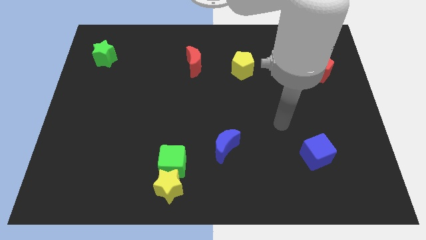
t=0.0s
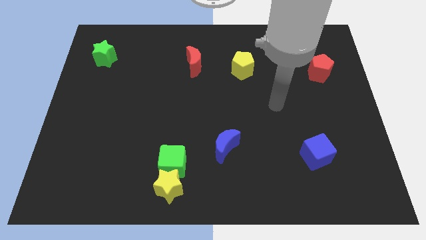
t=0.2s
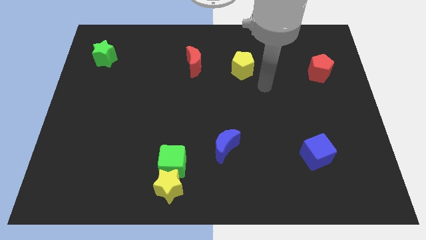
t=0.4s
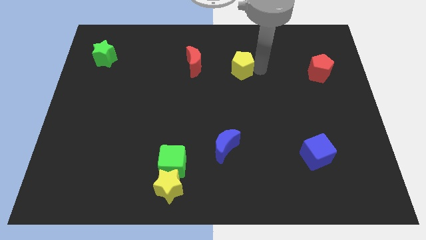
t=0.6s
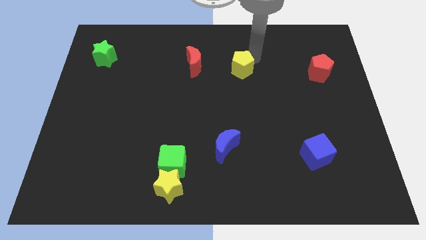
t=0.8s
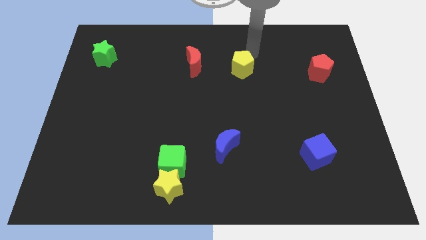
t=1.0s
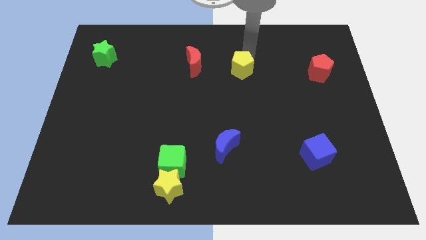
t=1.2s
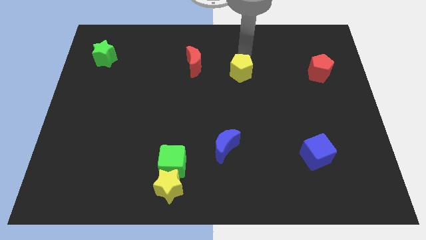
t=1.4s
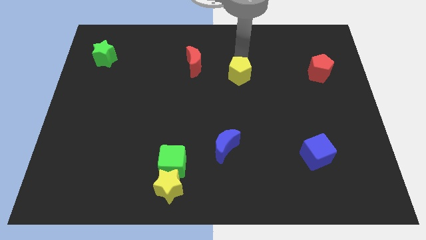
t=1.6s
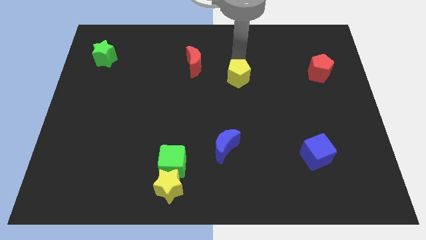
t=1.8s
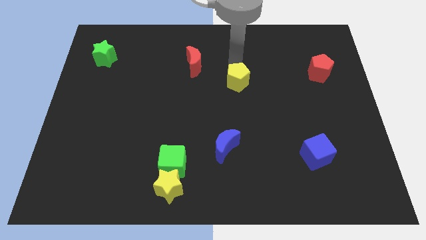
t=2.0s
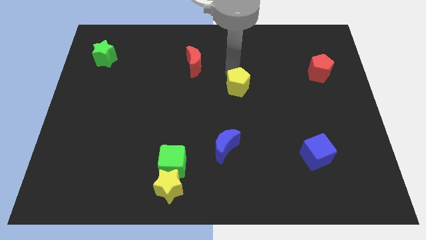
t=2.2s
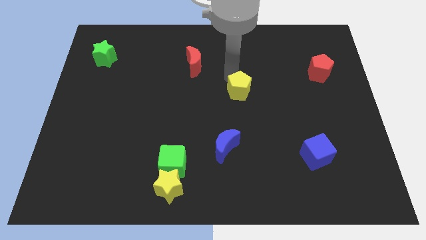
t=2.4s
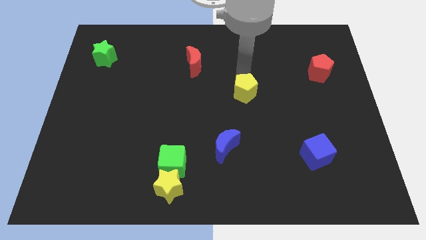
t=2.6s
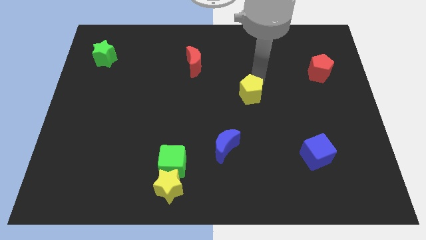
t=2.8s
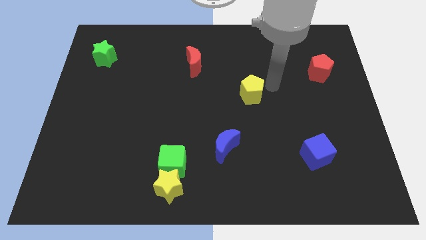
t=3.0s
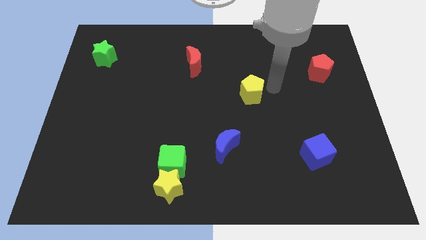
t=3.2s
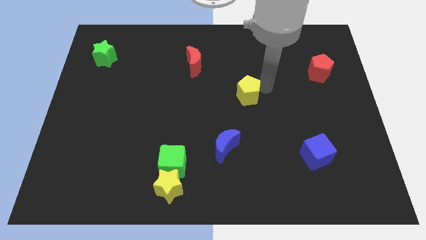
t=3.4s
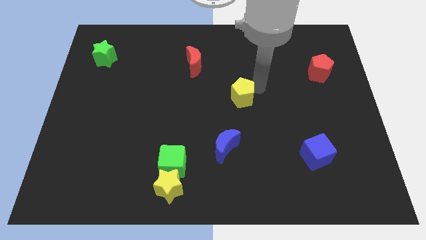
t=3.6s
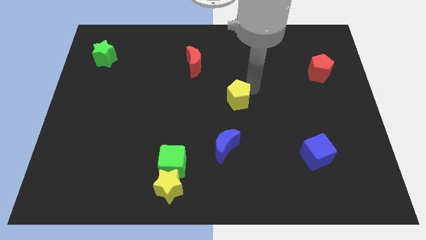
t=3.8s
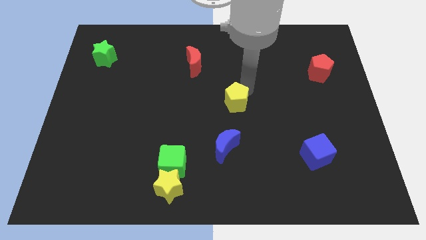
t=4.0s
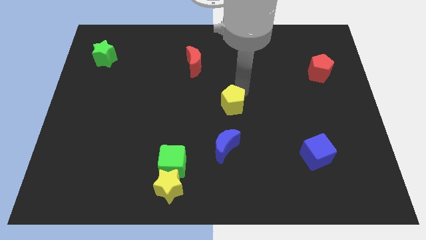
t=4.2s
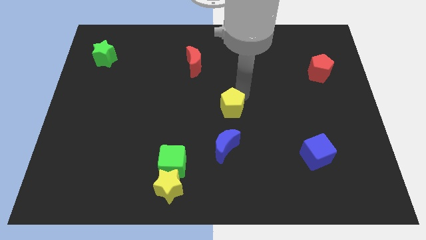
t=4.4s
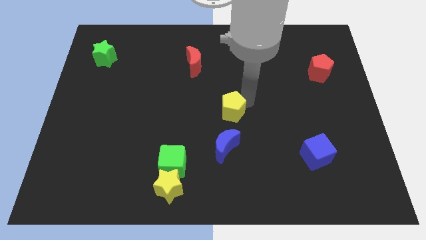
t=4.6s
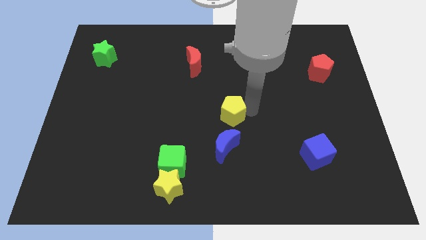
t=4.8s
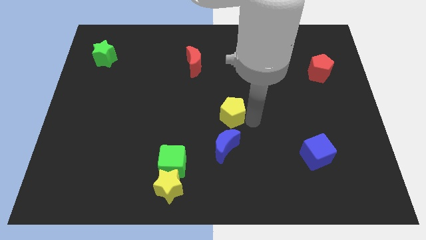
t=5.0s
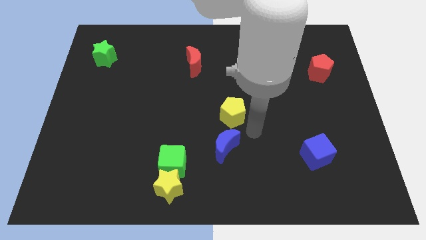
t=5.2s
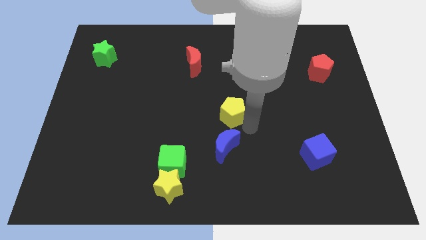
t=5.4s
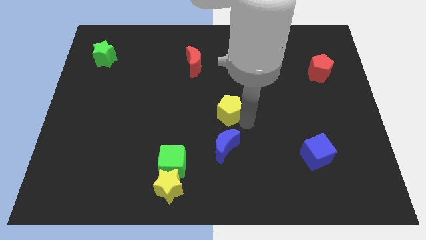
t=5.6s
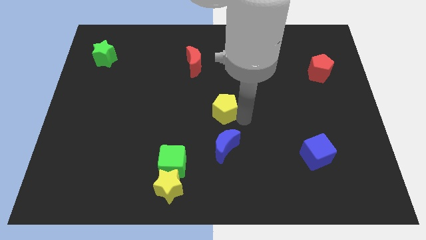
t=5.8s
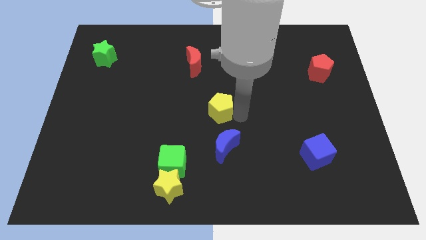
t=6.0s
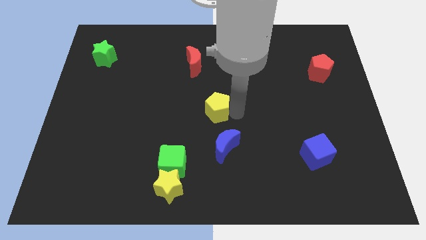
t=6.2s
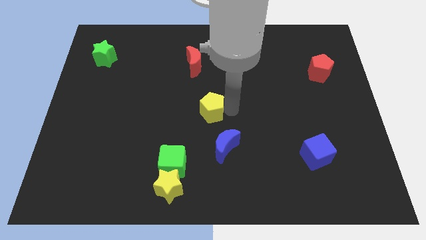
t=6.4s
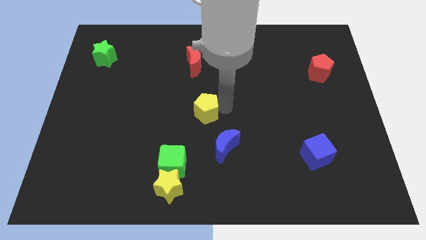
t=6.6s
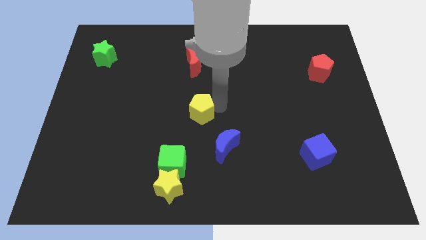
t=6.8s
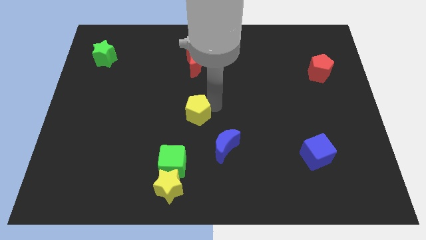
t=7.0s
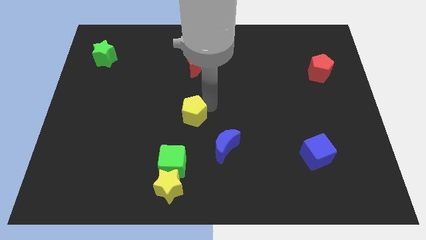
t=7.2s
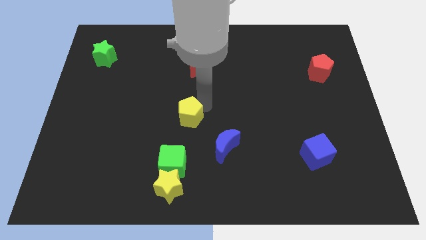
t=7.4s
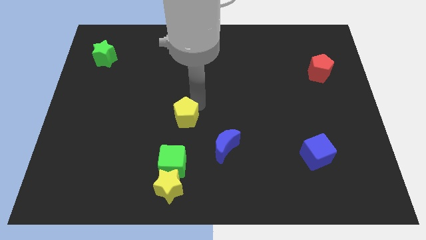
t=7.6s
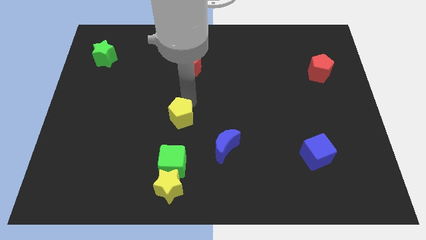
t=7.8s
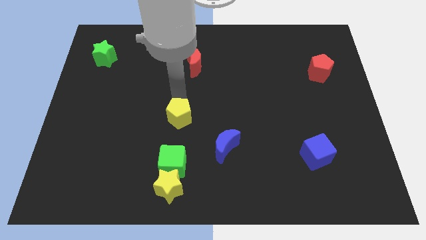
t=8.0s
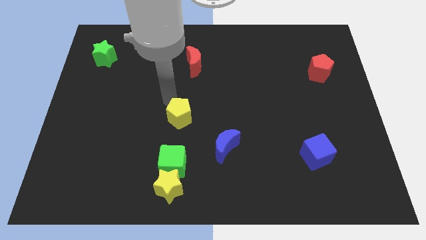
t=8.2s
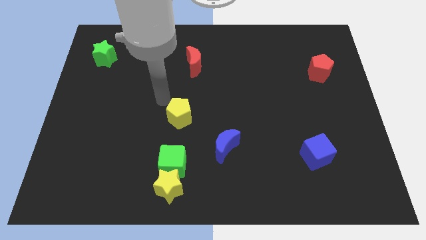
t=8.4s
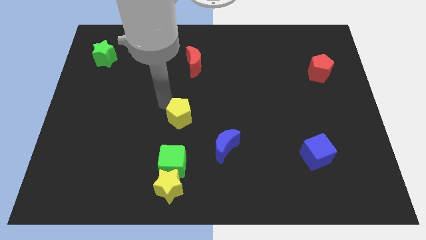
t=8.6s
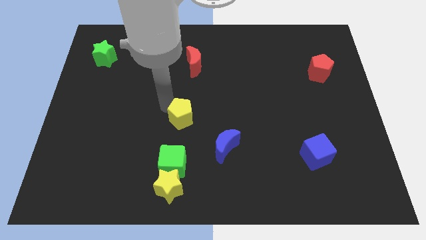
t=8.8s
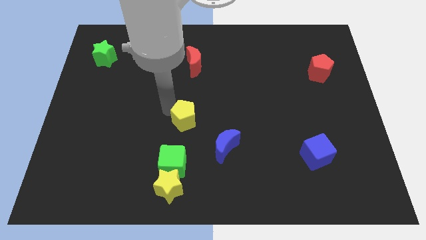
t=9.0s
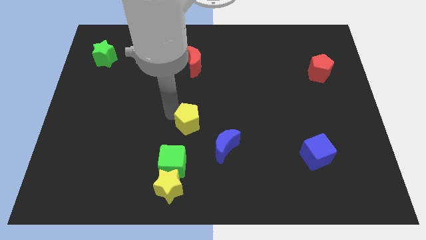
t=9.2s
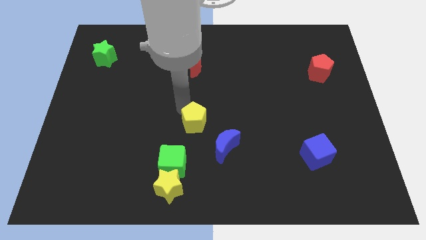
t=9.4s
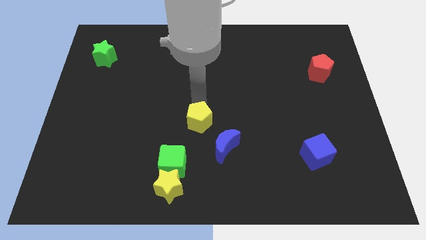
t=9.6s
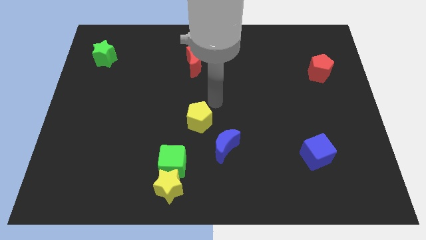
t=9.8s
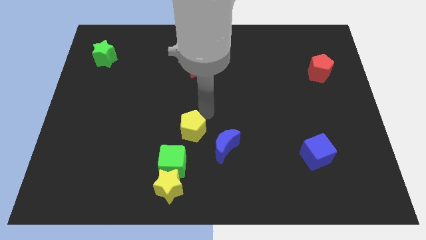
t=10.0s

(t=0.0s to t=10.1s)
put the yellow pentagon to the left side of the blue moon

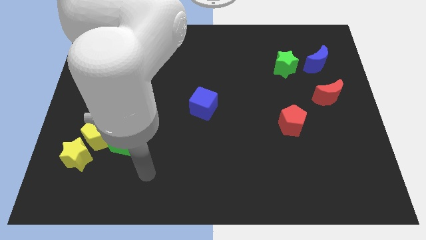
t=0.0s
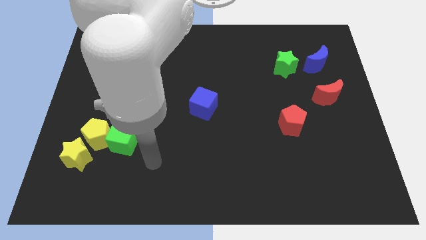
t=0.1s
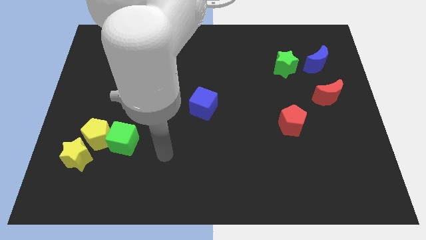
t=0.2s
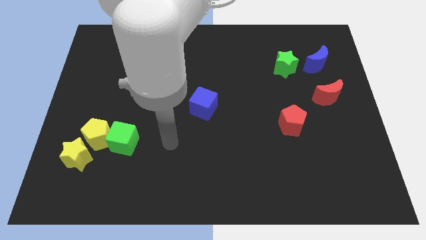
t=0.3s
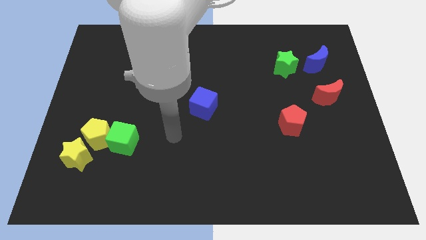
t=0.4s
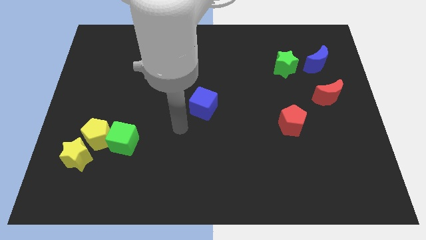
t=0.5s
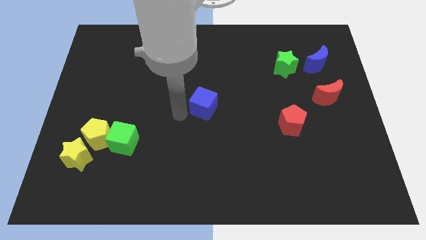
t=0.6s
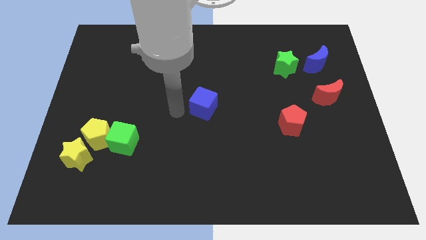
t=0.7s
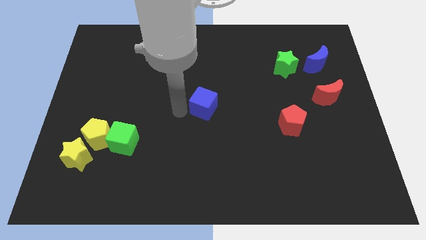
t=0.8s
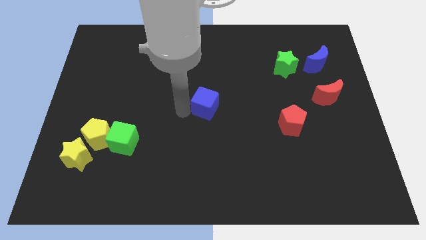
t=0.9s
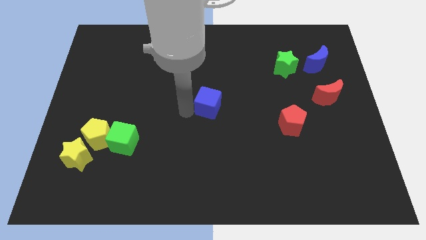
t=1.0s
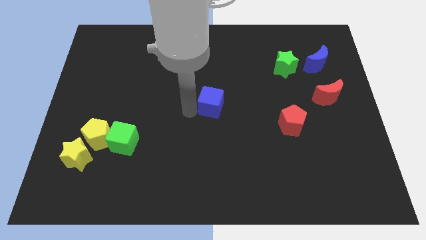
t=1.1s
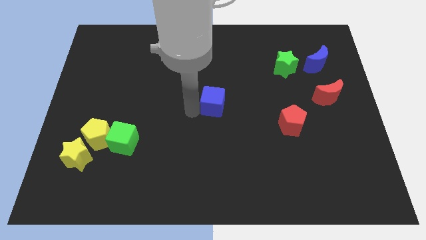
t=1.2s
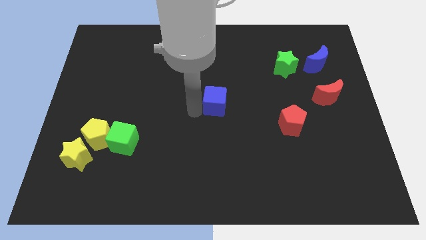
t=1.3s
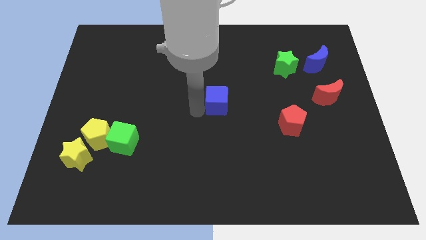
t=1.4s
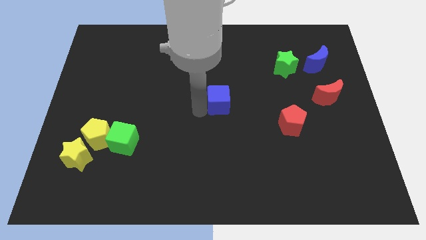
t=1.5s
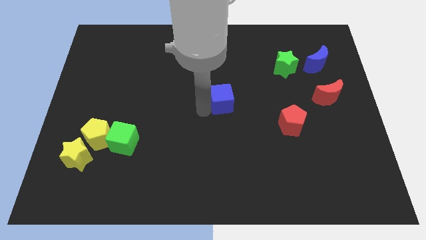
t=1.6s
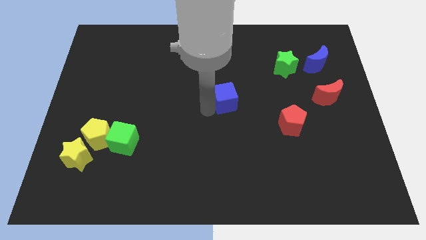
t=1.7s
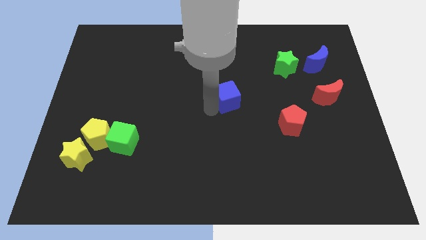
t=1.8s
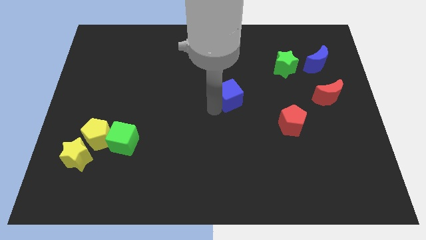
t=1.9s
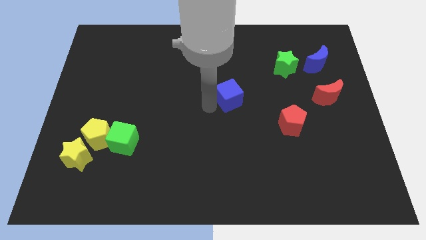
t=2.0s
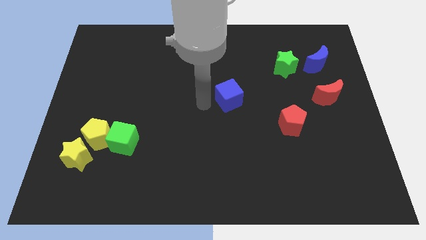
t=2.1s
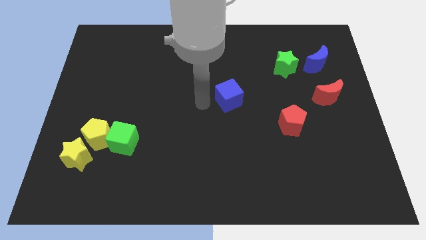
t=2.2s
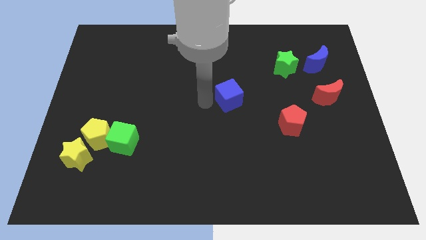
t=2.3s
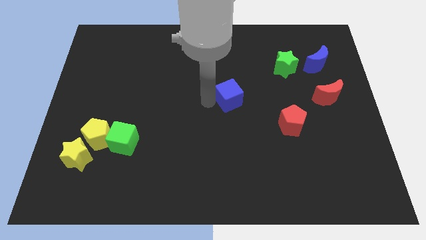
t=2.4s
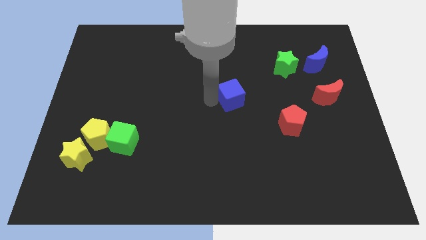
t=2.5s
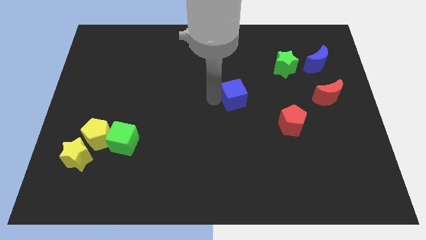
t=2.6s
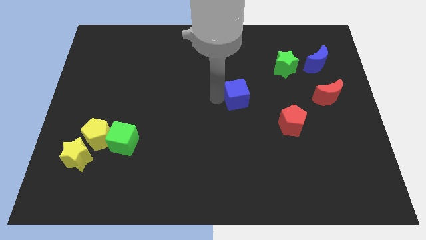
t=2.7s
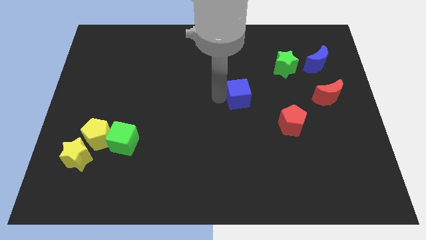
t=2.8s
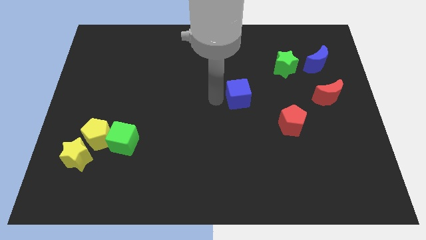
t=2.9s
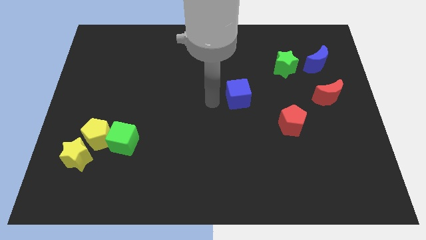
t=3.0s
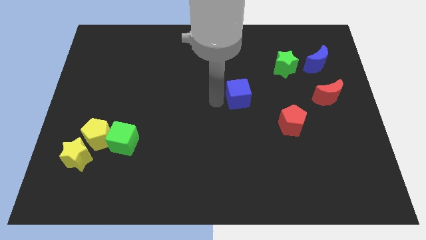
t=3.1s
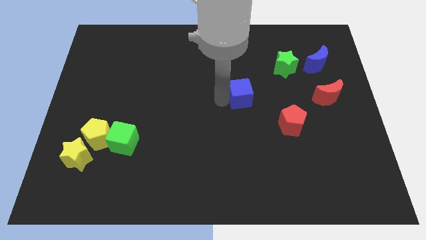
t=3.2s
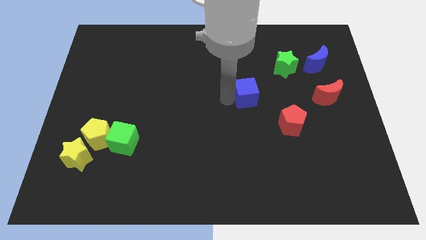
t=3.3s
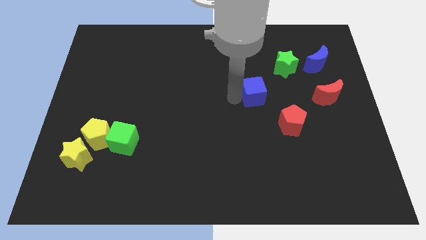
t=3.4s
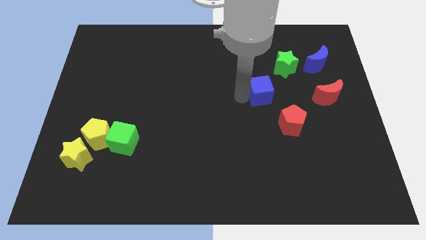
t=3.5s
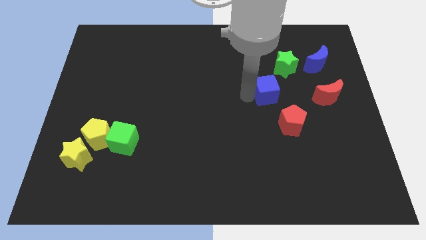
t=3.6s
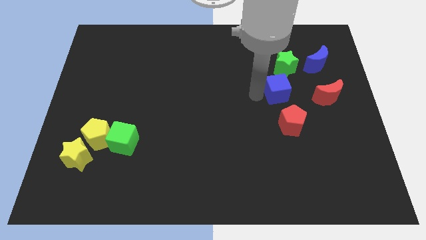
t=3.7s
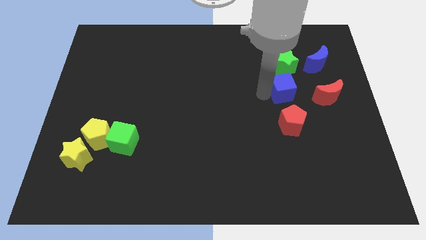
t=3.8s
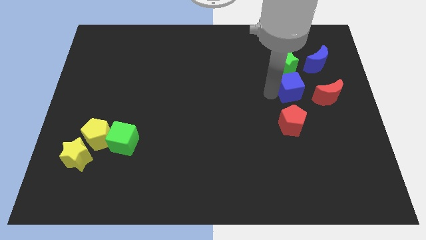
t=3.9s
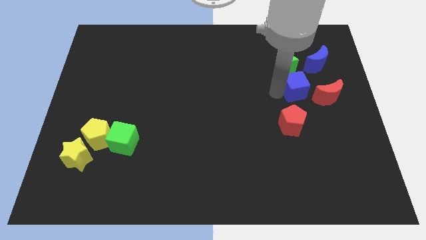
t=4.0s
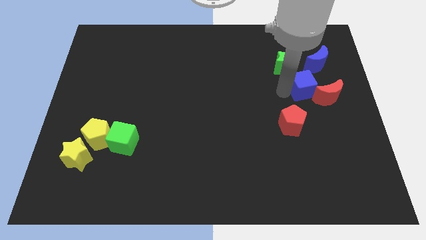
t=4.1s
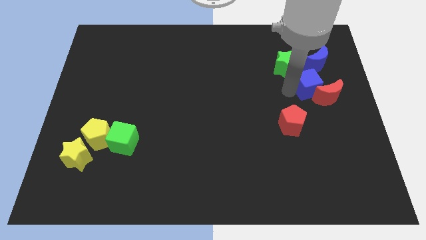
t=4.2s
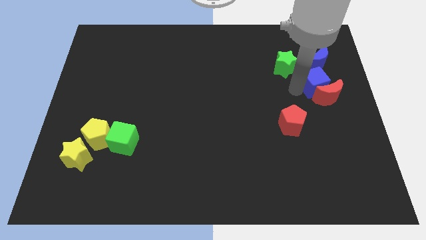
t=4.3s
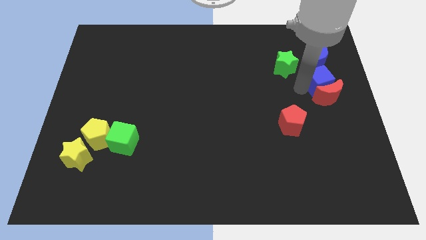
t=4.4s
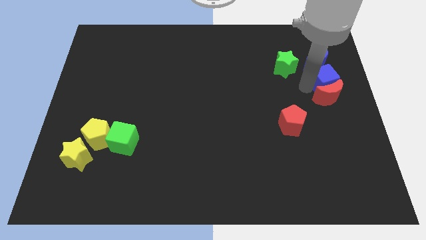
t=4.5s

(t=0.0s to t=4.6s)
slide the blue cube right of the green star
